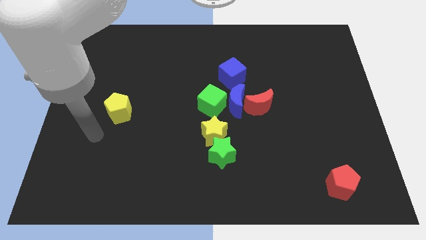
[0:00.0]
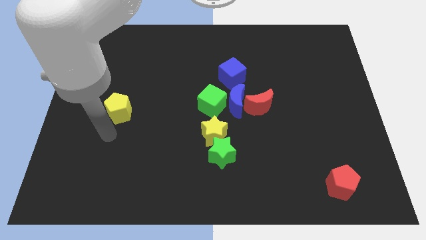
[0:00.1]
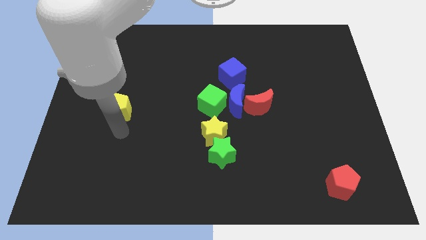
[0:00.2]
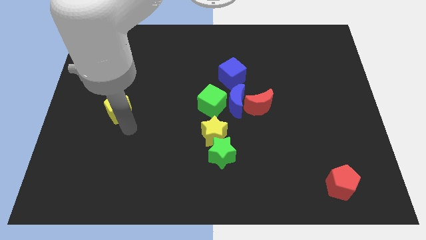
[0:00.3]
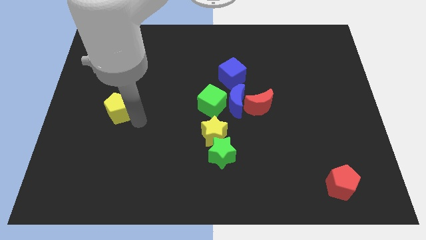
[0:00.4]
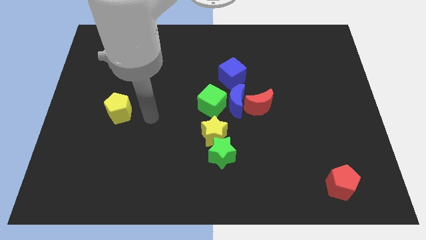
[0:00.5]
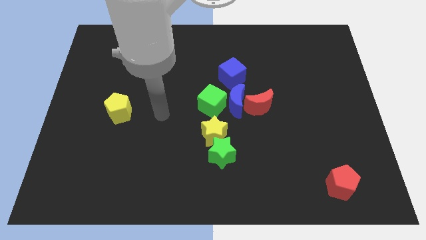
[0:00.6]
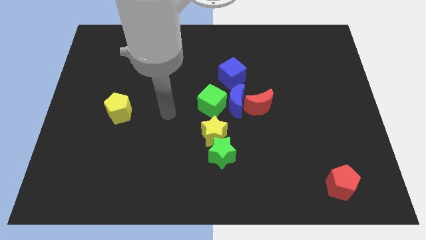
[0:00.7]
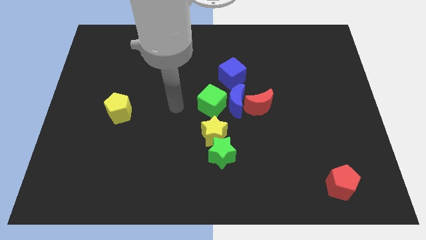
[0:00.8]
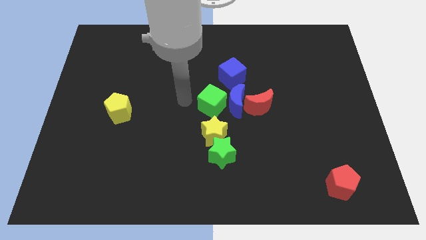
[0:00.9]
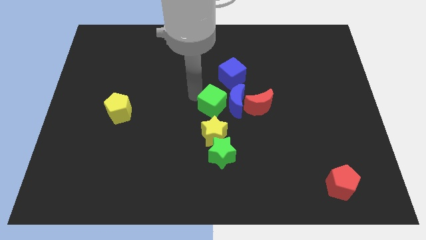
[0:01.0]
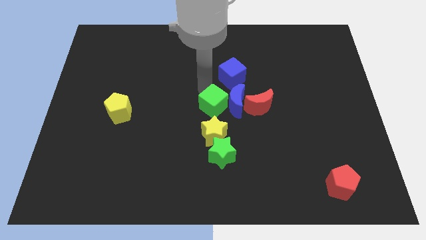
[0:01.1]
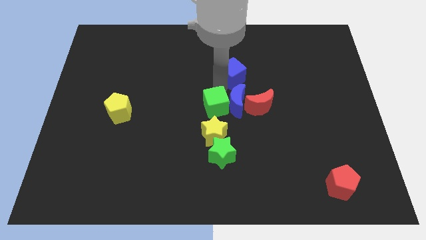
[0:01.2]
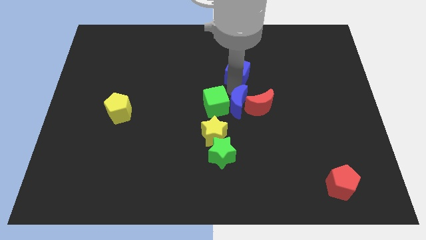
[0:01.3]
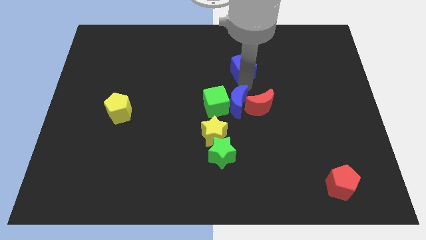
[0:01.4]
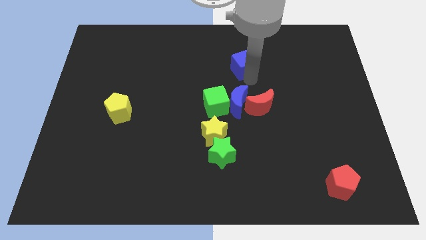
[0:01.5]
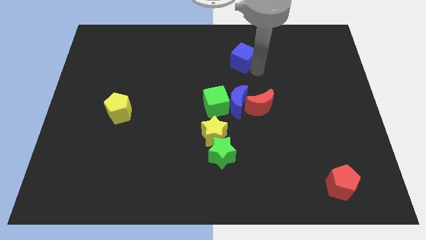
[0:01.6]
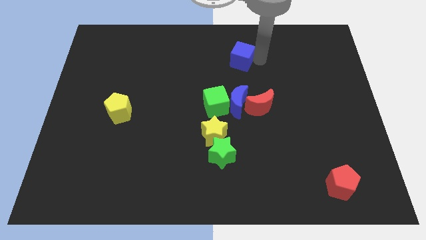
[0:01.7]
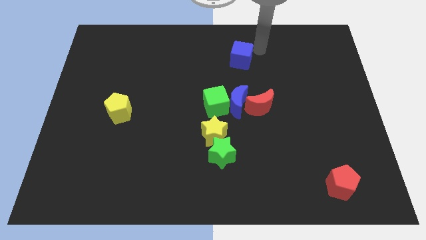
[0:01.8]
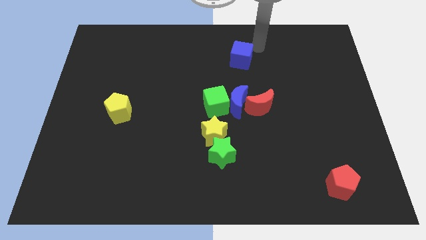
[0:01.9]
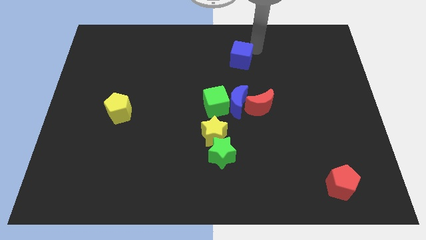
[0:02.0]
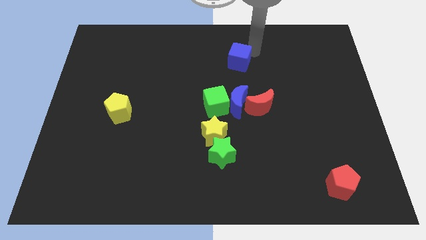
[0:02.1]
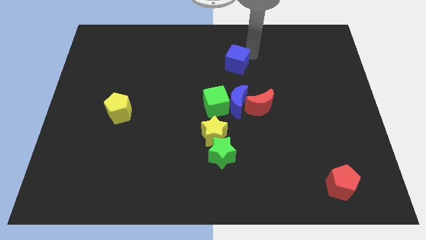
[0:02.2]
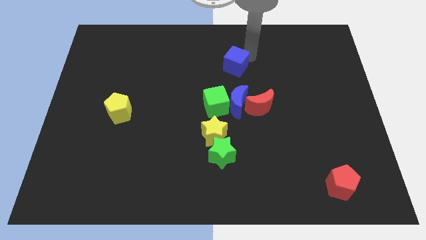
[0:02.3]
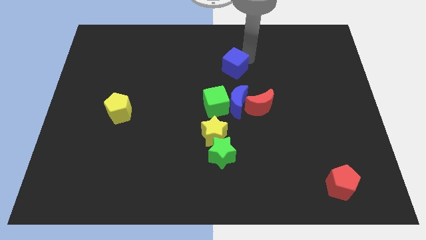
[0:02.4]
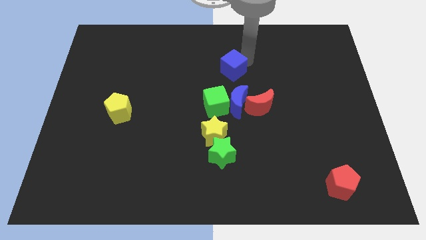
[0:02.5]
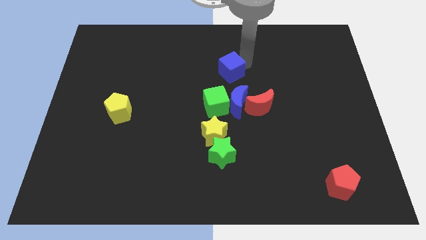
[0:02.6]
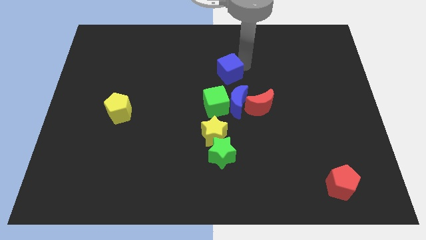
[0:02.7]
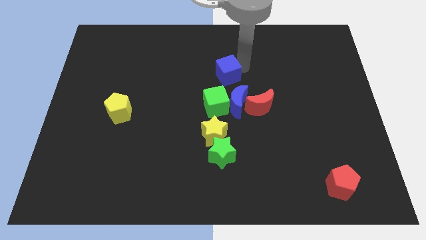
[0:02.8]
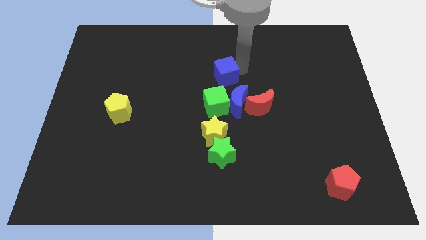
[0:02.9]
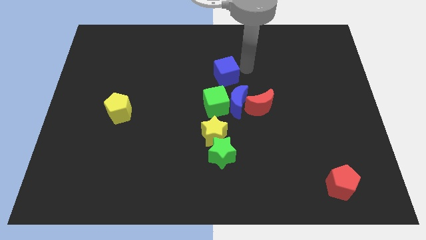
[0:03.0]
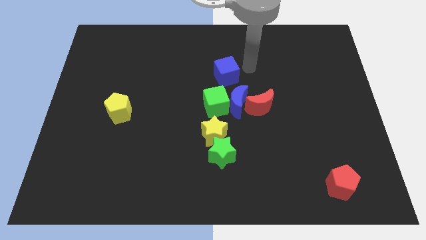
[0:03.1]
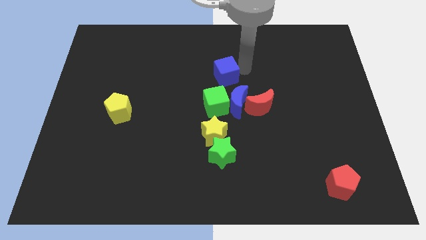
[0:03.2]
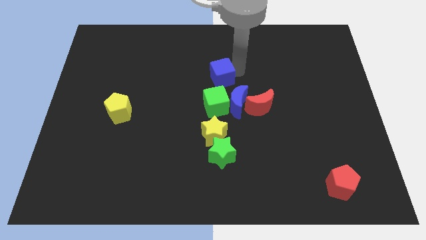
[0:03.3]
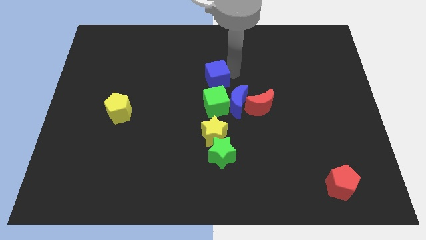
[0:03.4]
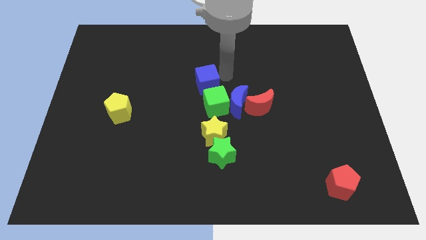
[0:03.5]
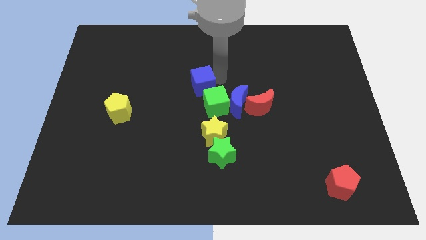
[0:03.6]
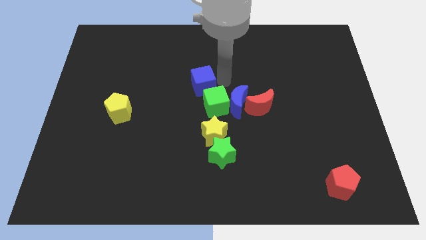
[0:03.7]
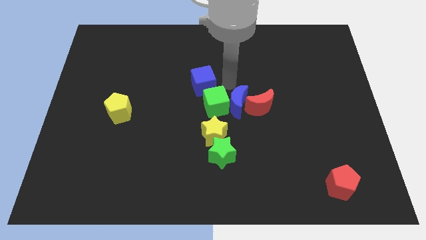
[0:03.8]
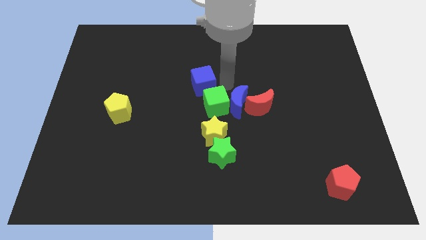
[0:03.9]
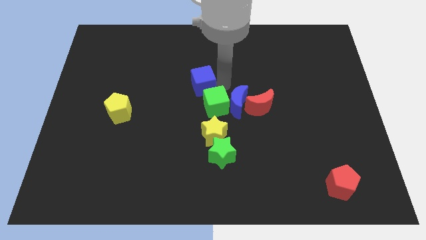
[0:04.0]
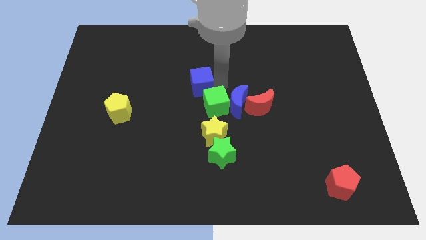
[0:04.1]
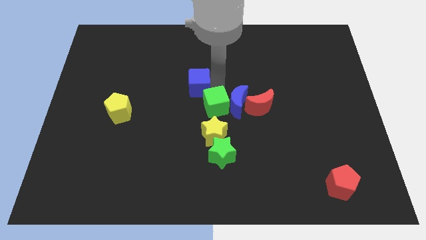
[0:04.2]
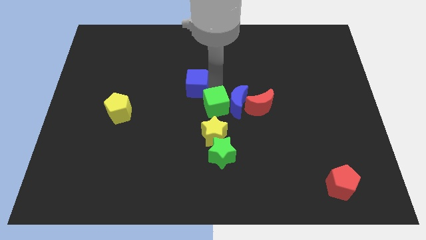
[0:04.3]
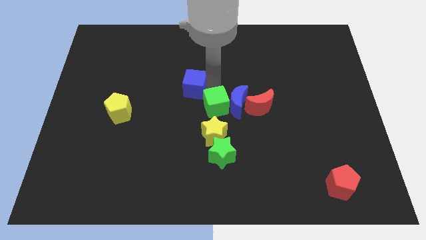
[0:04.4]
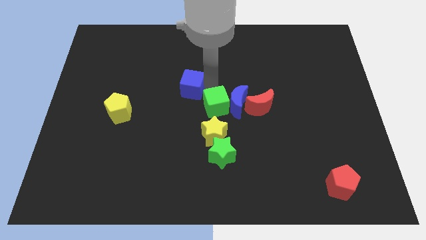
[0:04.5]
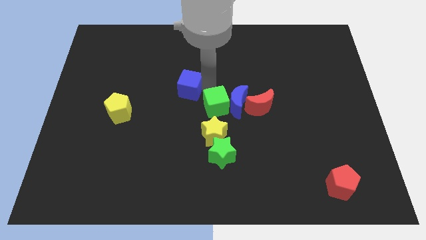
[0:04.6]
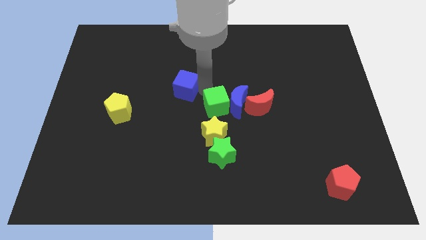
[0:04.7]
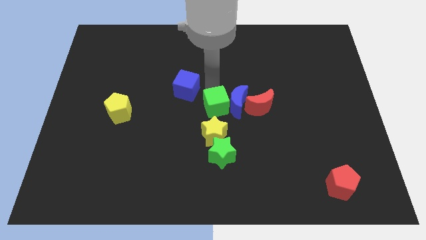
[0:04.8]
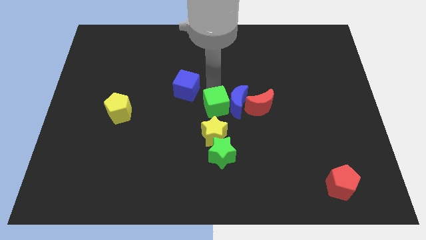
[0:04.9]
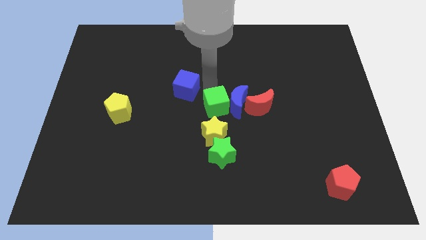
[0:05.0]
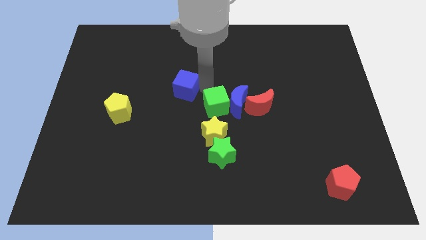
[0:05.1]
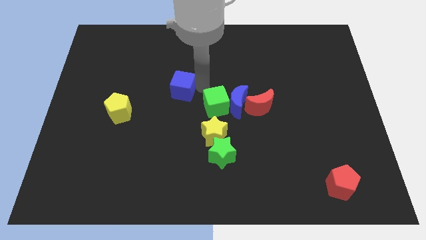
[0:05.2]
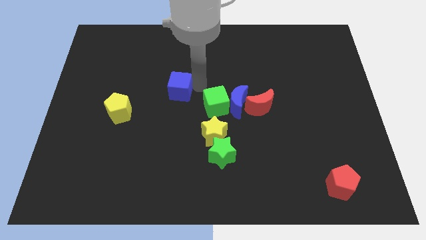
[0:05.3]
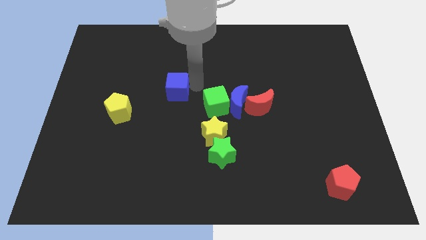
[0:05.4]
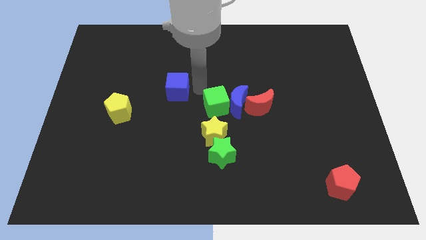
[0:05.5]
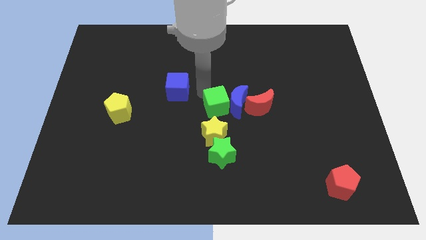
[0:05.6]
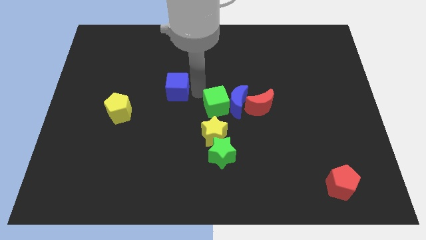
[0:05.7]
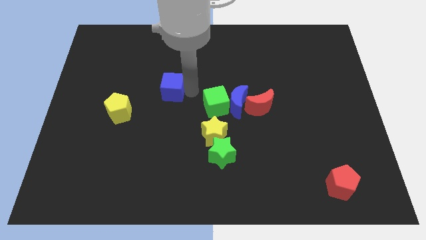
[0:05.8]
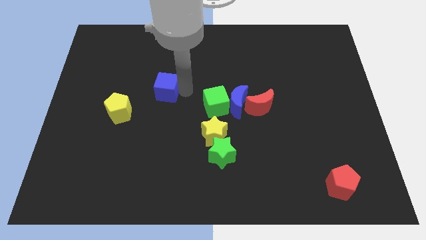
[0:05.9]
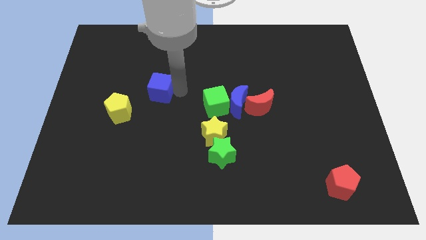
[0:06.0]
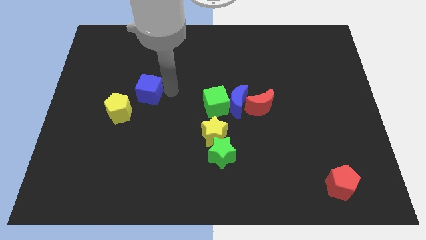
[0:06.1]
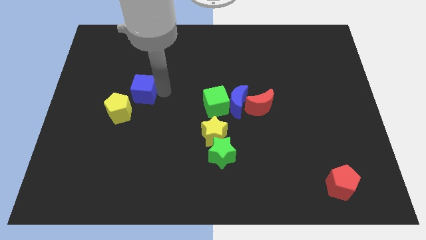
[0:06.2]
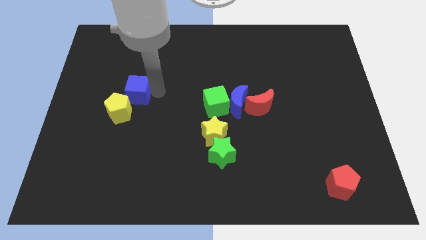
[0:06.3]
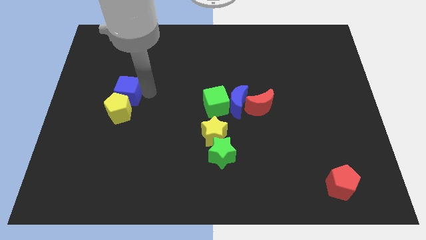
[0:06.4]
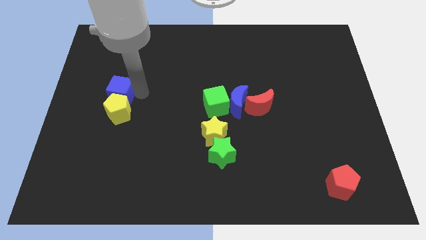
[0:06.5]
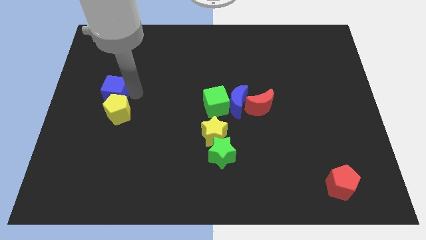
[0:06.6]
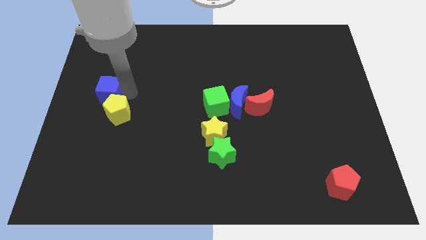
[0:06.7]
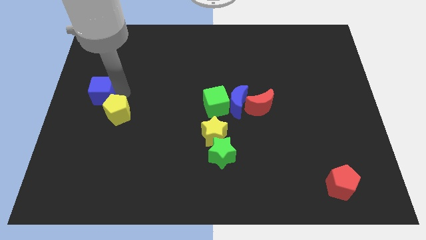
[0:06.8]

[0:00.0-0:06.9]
move the blue cube to the center left
